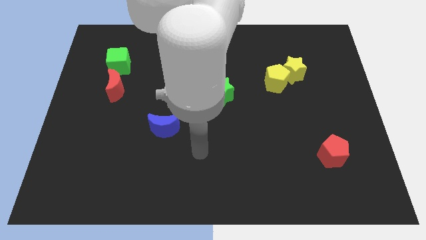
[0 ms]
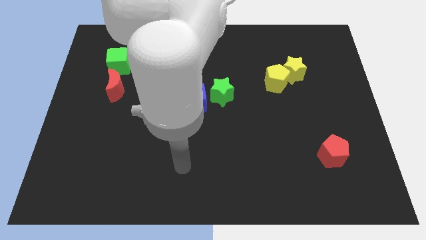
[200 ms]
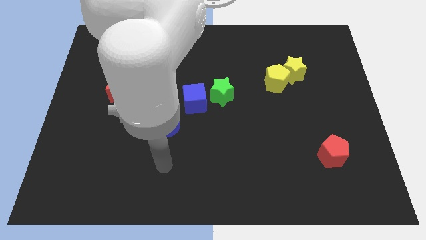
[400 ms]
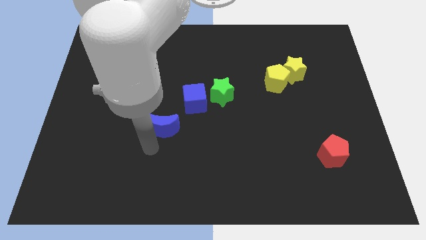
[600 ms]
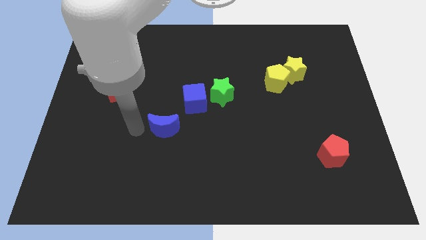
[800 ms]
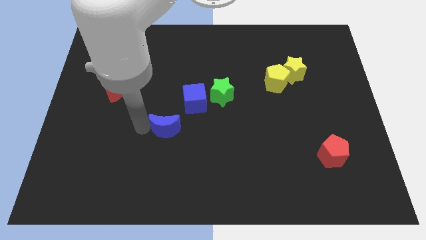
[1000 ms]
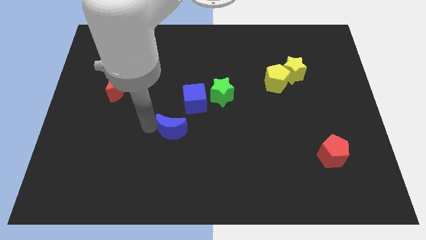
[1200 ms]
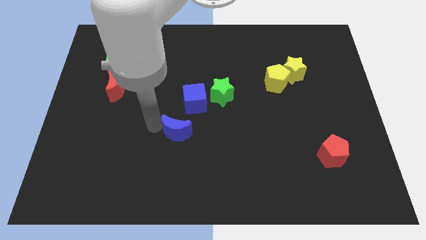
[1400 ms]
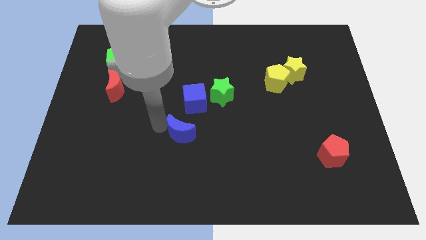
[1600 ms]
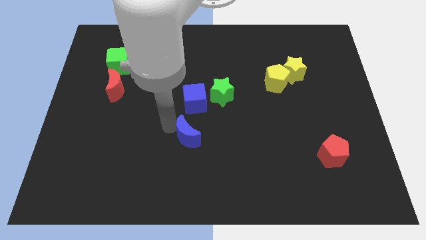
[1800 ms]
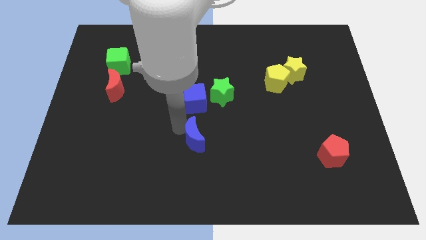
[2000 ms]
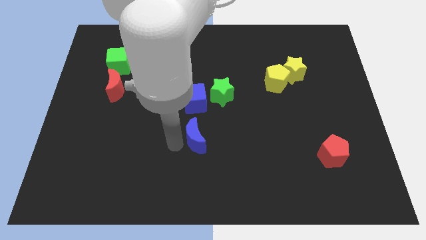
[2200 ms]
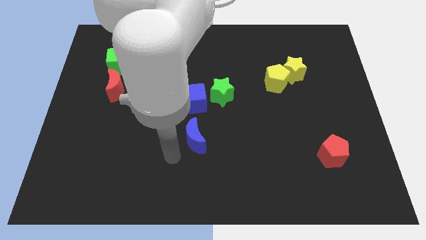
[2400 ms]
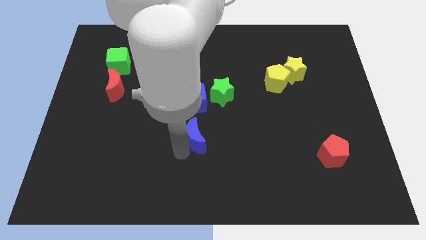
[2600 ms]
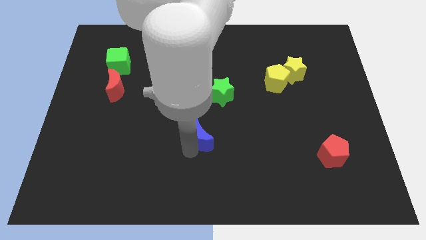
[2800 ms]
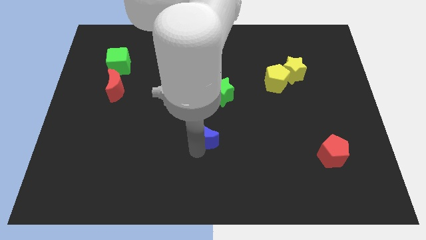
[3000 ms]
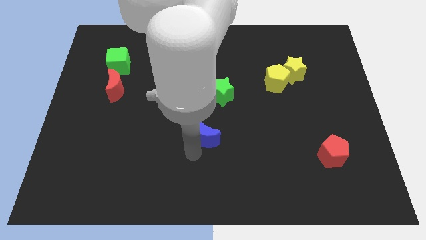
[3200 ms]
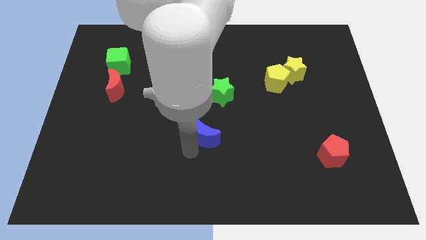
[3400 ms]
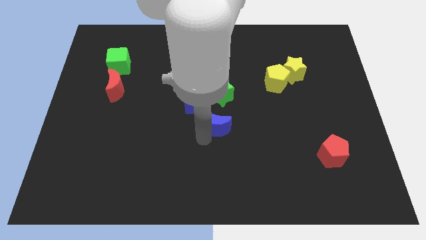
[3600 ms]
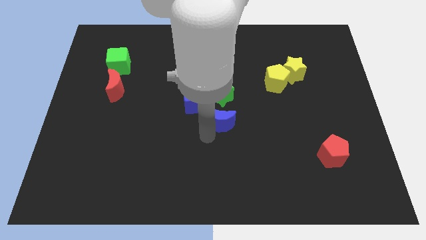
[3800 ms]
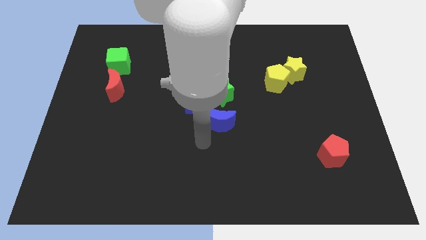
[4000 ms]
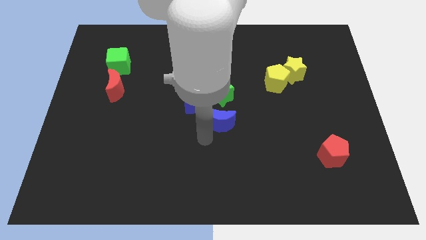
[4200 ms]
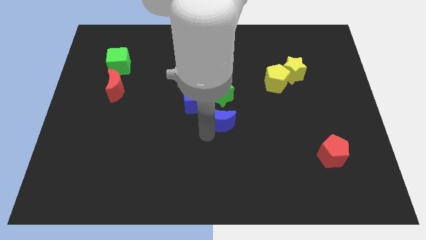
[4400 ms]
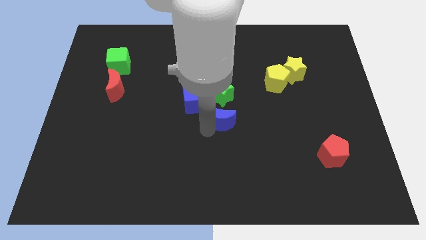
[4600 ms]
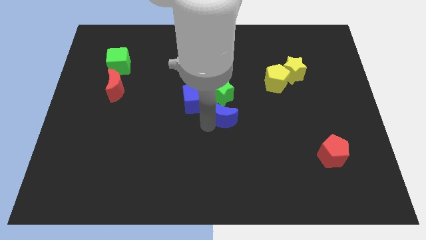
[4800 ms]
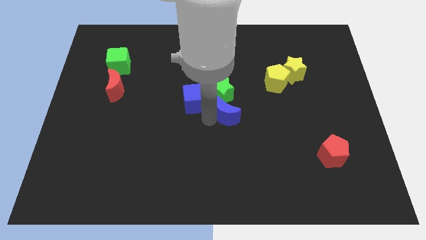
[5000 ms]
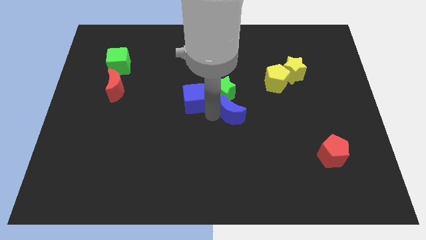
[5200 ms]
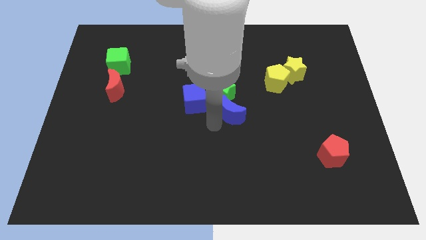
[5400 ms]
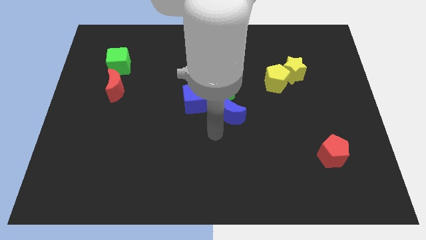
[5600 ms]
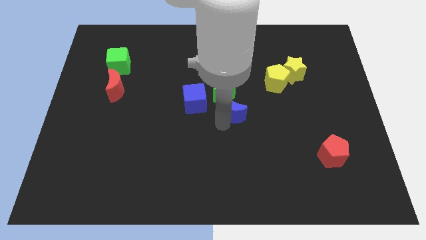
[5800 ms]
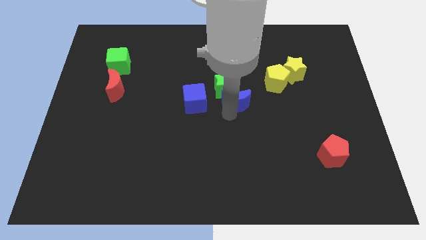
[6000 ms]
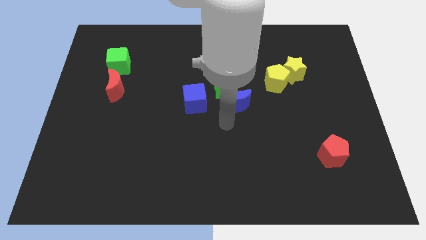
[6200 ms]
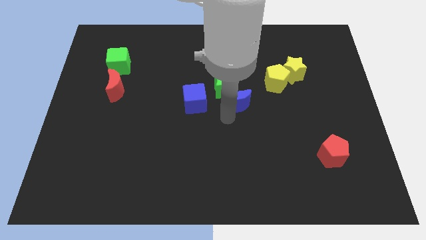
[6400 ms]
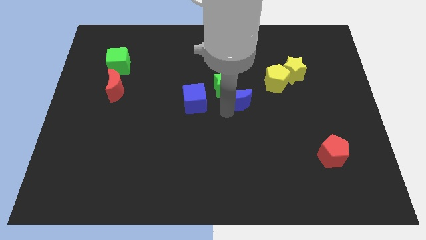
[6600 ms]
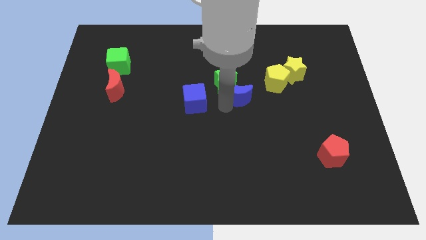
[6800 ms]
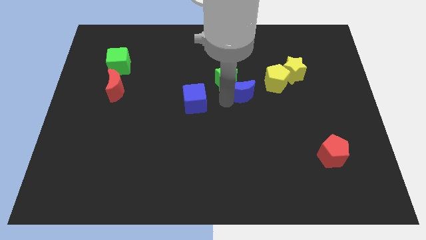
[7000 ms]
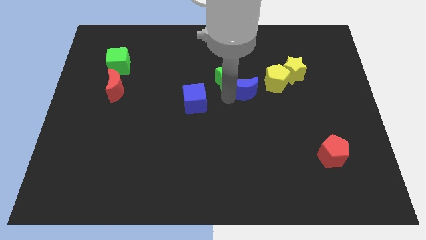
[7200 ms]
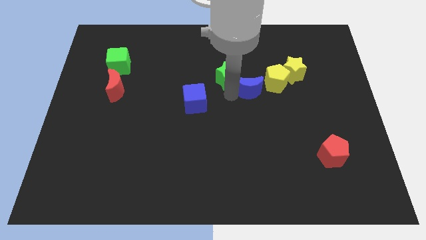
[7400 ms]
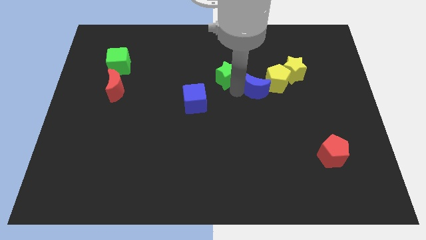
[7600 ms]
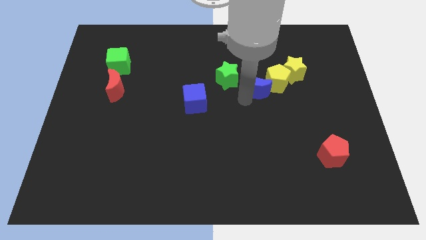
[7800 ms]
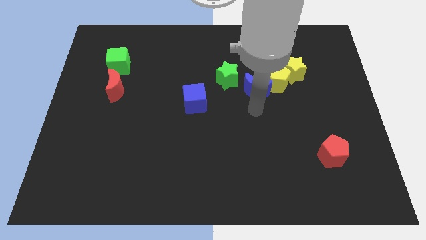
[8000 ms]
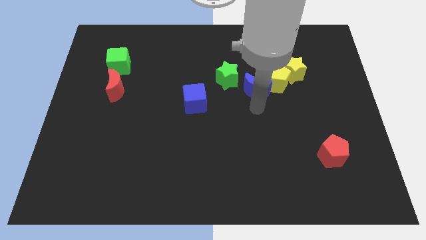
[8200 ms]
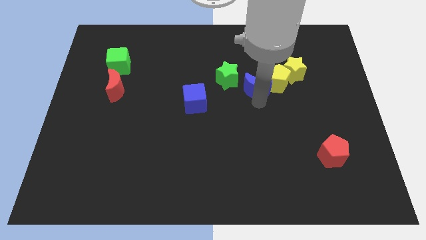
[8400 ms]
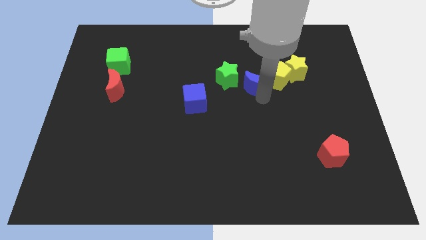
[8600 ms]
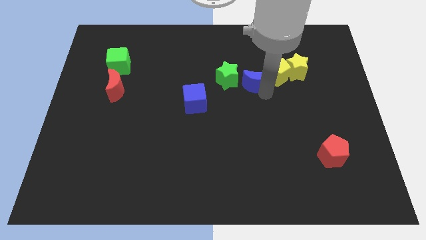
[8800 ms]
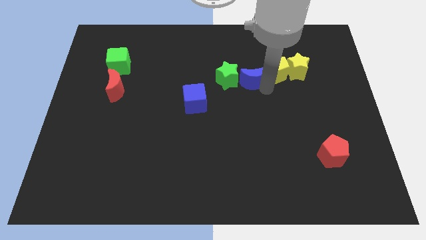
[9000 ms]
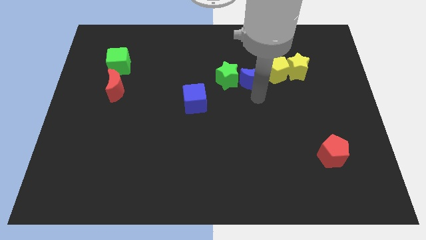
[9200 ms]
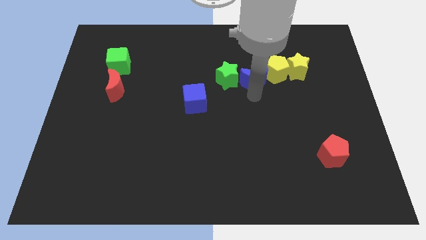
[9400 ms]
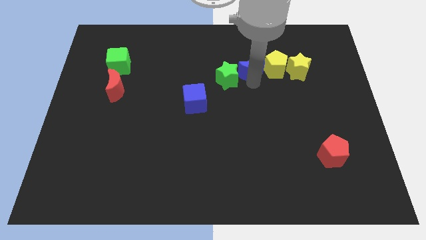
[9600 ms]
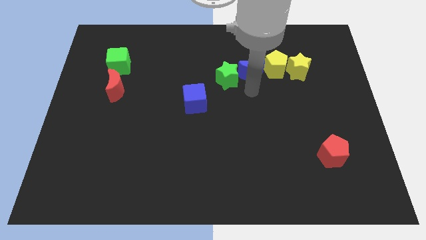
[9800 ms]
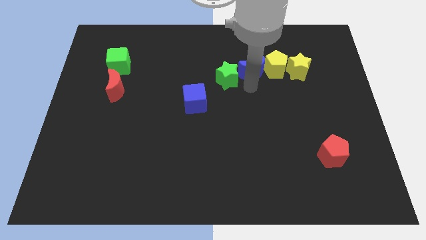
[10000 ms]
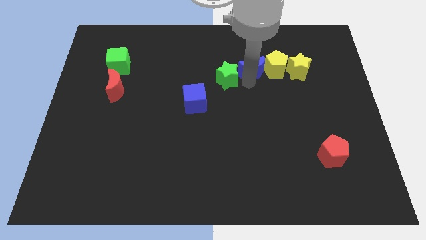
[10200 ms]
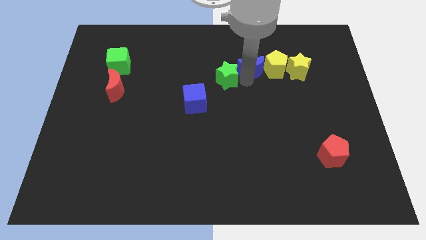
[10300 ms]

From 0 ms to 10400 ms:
slide the blue moon to the top left side of the yellow pentagon

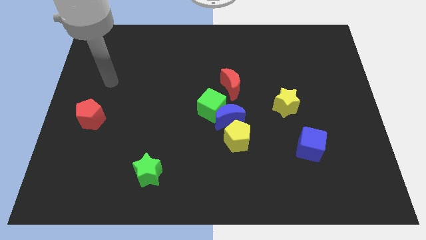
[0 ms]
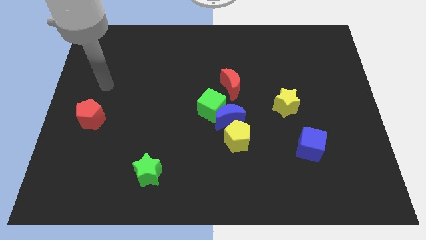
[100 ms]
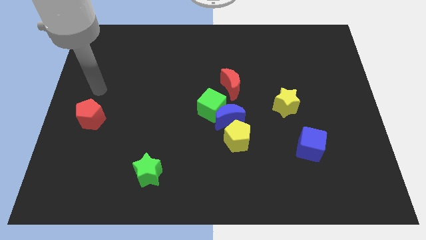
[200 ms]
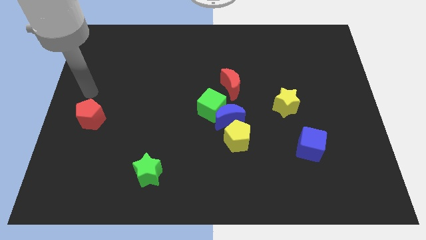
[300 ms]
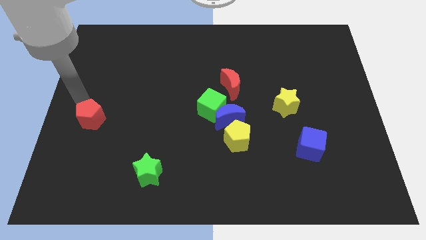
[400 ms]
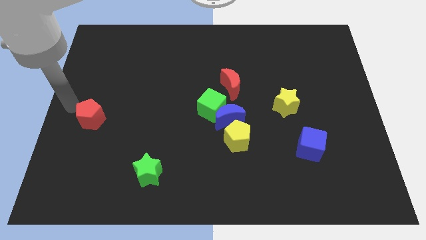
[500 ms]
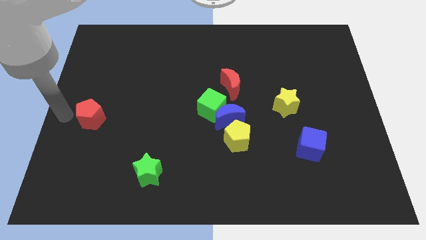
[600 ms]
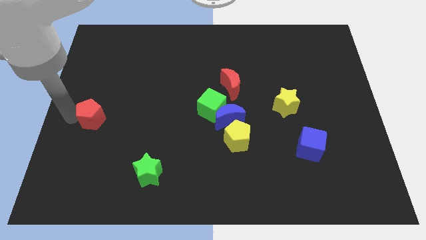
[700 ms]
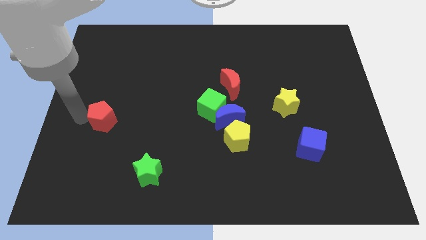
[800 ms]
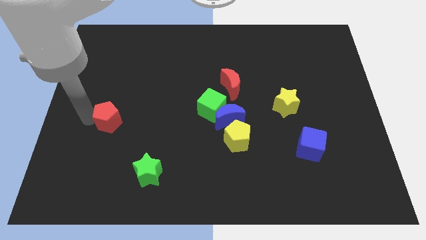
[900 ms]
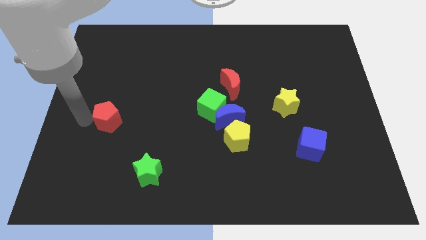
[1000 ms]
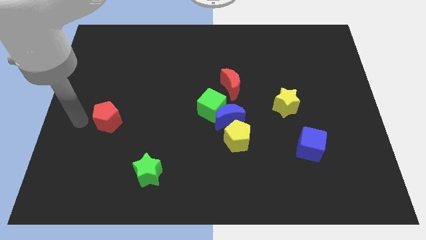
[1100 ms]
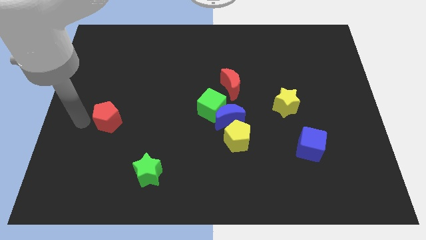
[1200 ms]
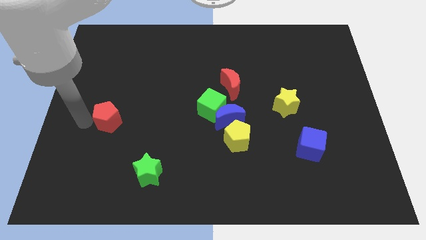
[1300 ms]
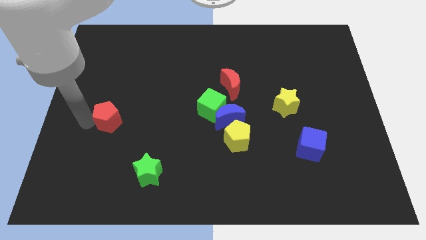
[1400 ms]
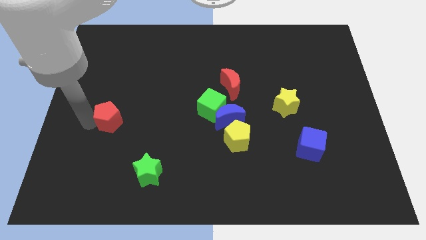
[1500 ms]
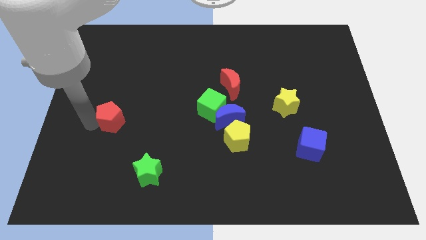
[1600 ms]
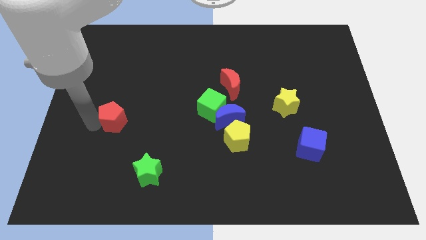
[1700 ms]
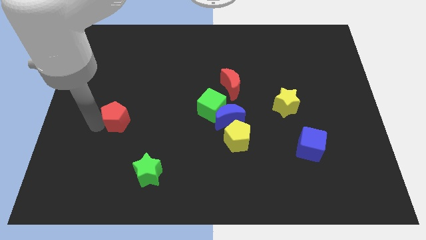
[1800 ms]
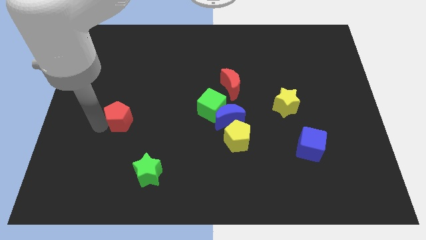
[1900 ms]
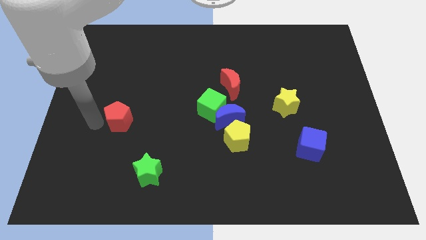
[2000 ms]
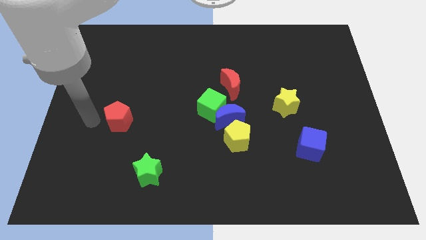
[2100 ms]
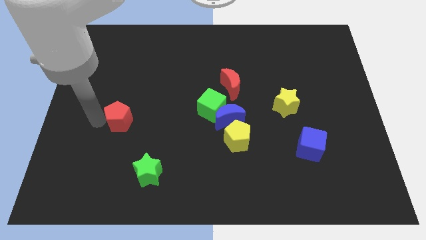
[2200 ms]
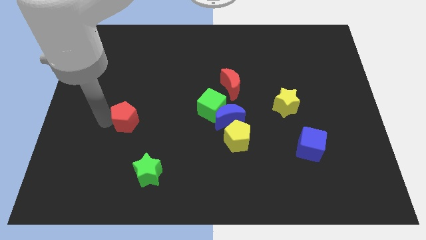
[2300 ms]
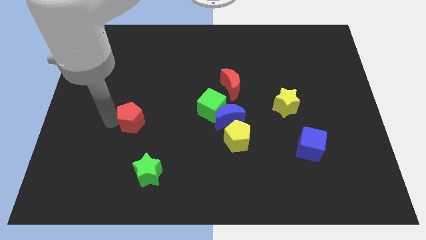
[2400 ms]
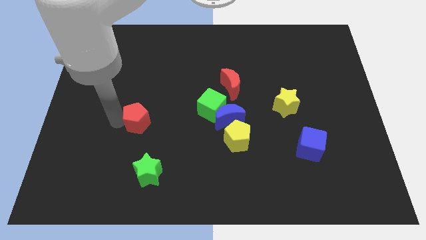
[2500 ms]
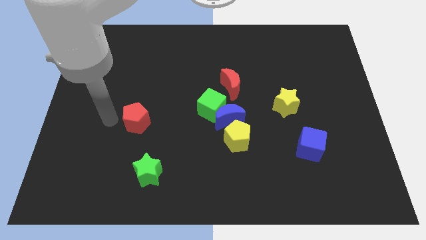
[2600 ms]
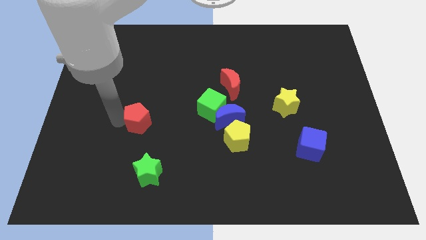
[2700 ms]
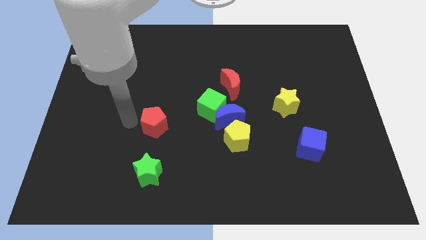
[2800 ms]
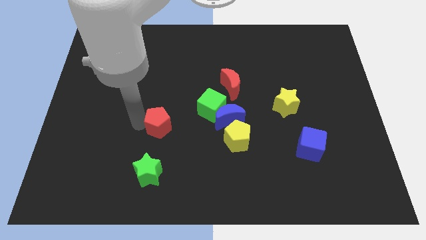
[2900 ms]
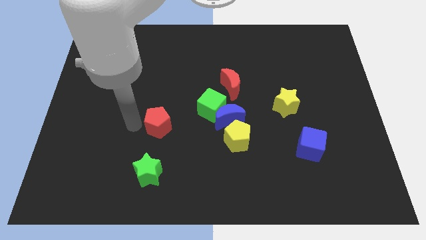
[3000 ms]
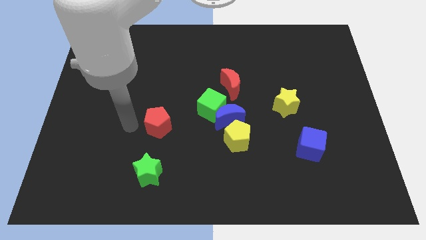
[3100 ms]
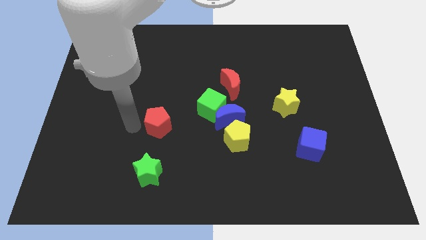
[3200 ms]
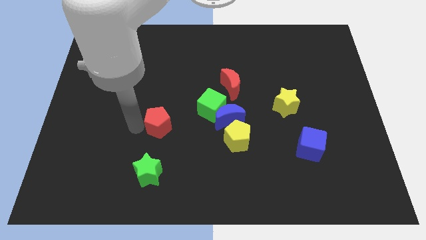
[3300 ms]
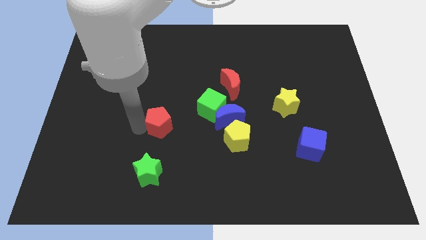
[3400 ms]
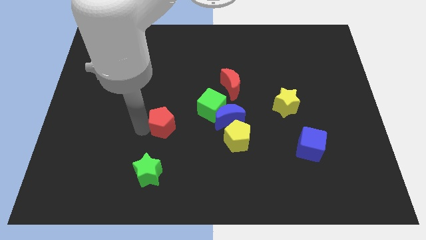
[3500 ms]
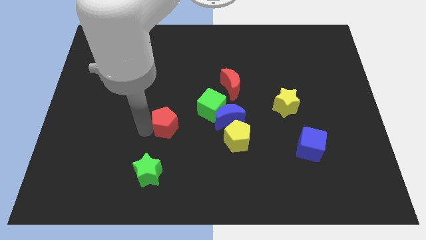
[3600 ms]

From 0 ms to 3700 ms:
push the red pentagon diagonally down and to the left of the green cube
